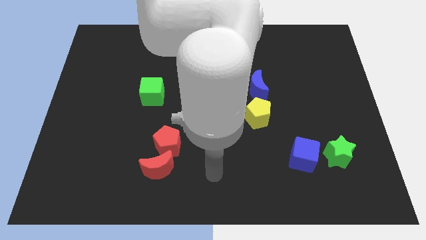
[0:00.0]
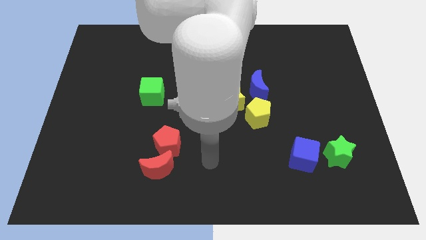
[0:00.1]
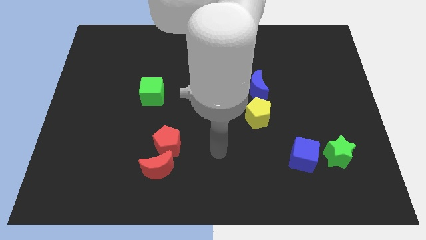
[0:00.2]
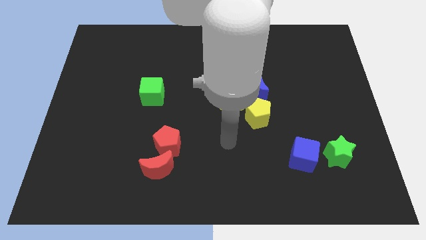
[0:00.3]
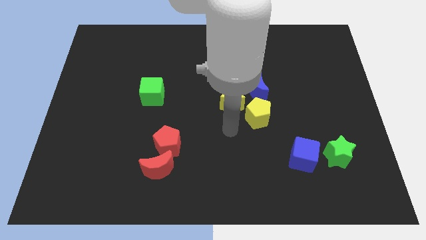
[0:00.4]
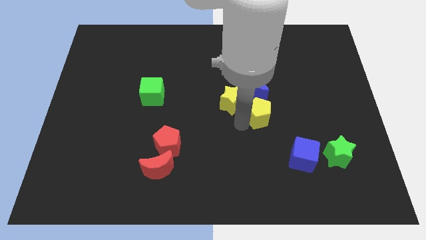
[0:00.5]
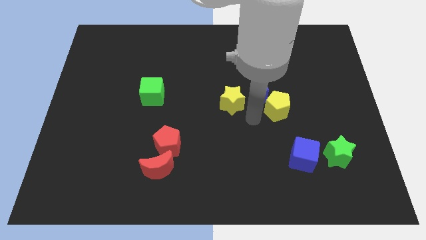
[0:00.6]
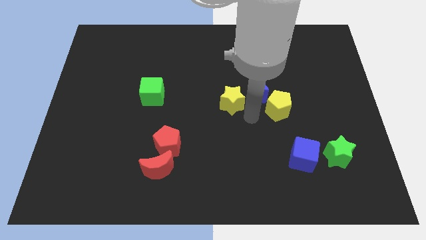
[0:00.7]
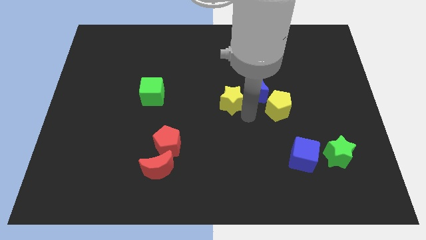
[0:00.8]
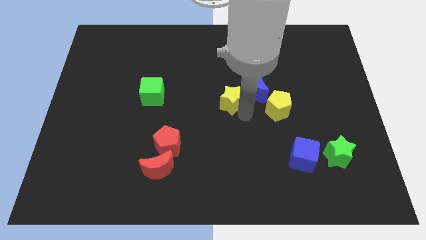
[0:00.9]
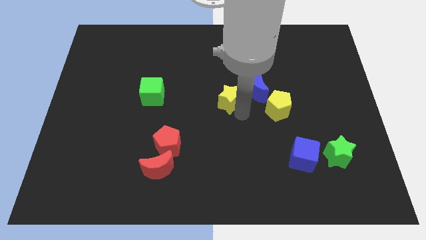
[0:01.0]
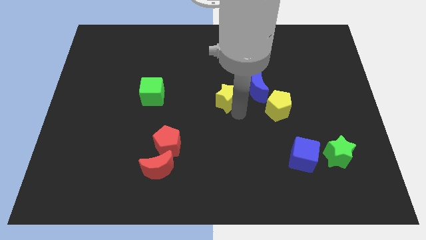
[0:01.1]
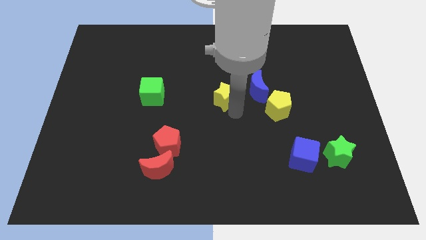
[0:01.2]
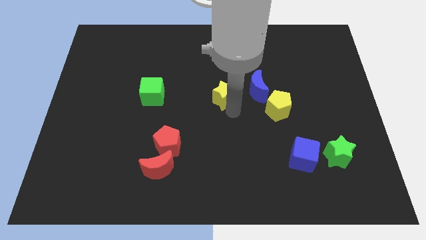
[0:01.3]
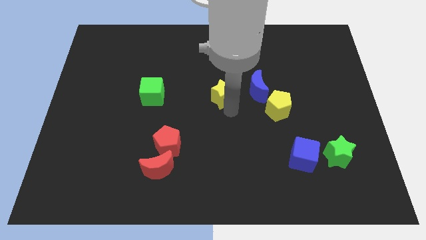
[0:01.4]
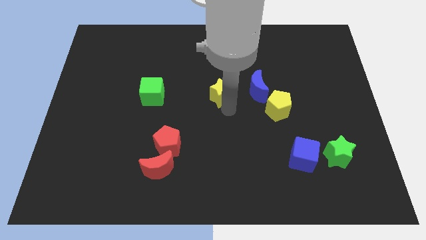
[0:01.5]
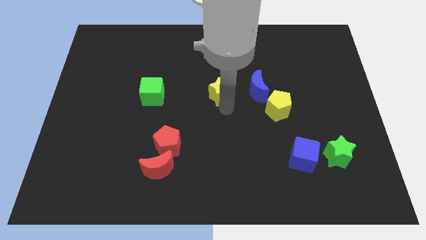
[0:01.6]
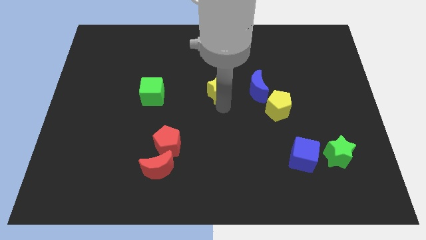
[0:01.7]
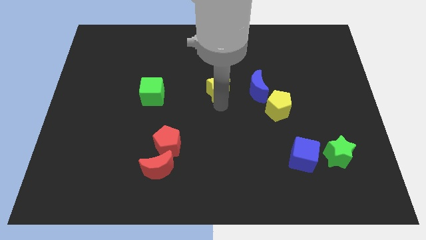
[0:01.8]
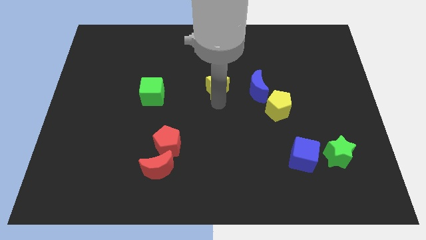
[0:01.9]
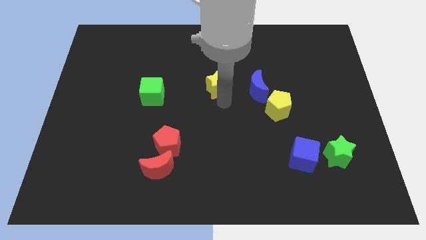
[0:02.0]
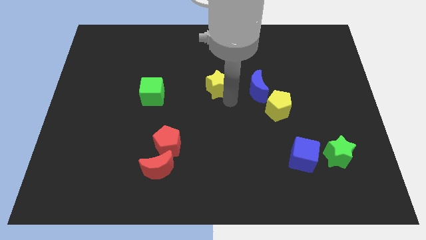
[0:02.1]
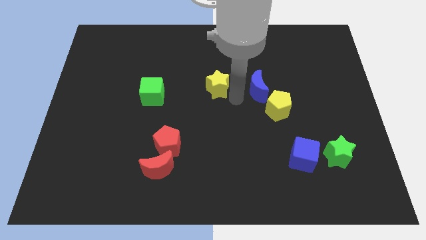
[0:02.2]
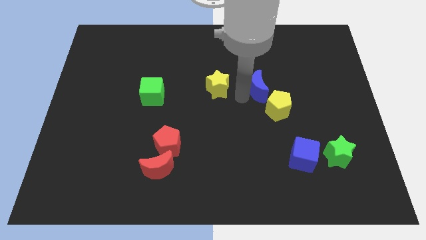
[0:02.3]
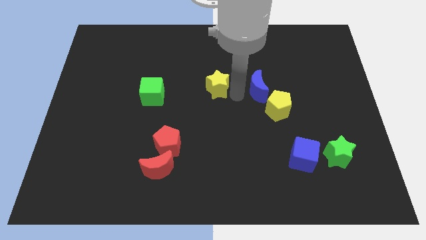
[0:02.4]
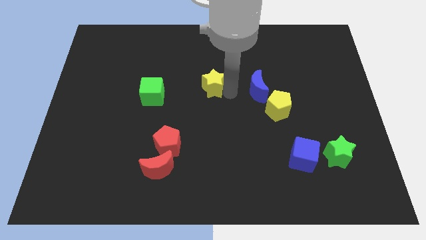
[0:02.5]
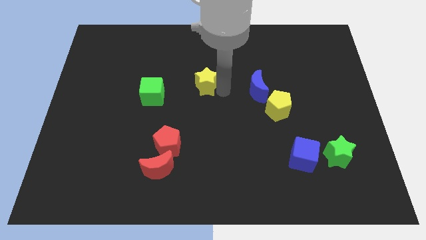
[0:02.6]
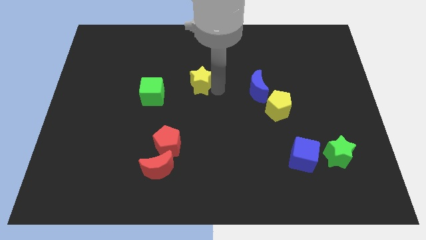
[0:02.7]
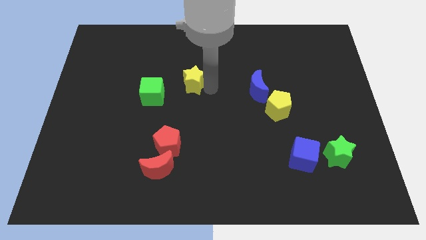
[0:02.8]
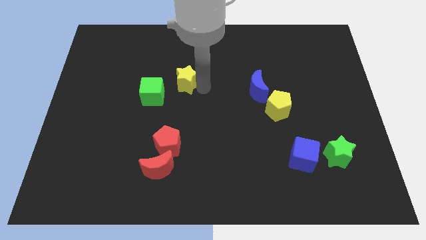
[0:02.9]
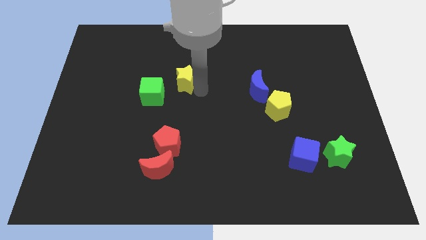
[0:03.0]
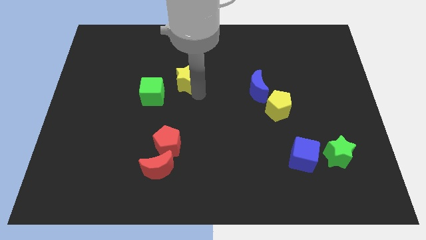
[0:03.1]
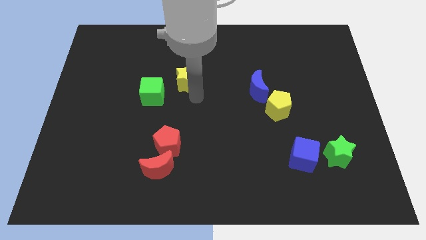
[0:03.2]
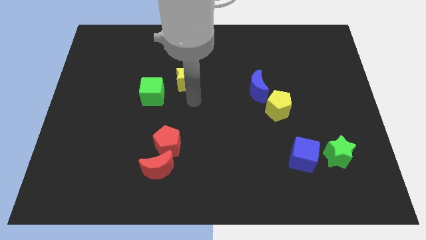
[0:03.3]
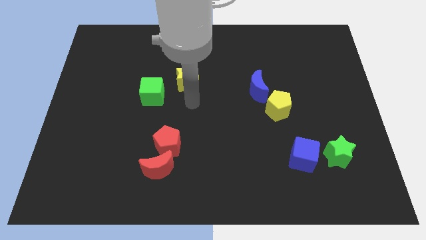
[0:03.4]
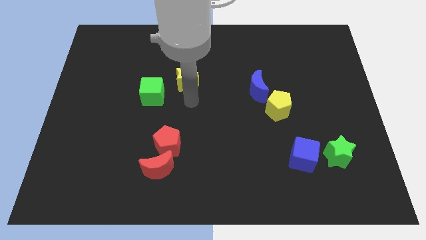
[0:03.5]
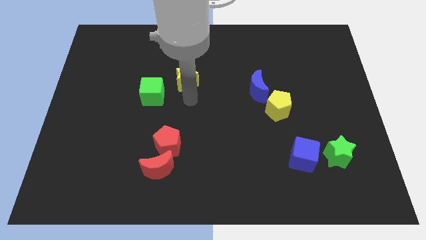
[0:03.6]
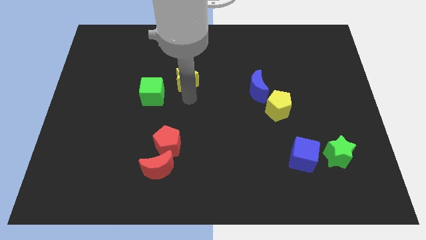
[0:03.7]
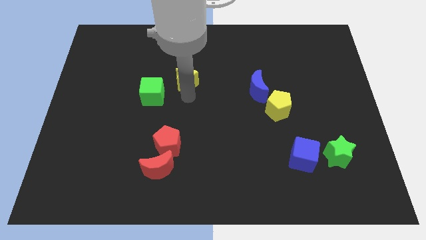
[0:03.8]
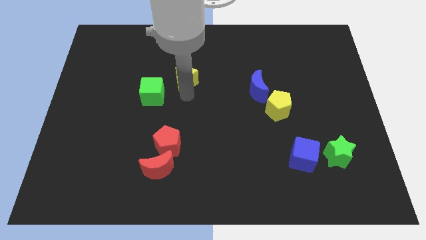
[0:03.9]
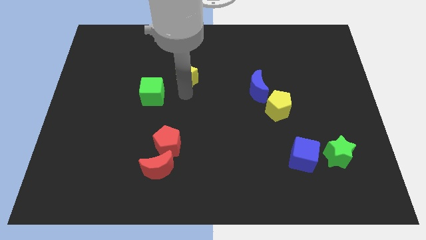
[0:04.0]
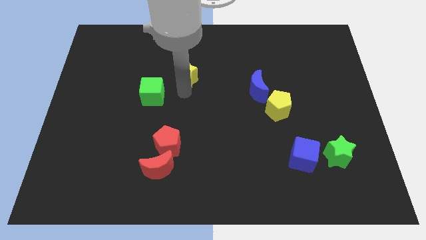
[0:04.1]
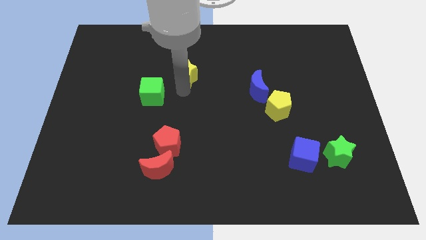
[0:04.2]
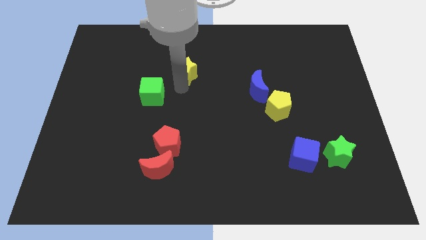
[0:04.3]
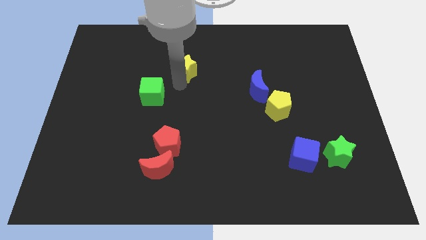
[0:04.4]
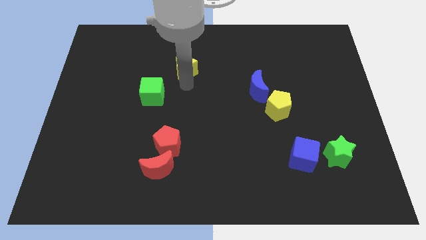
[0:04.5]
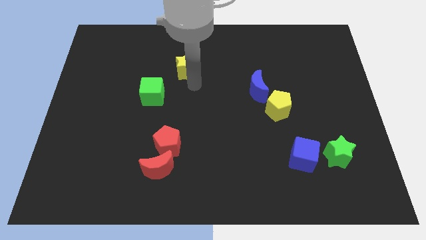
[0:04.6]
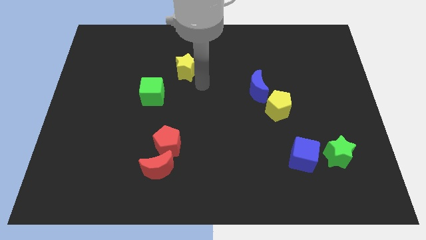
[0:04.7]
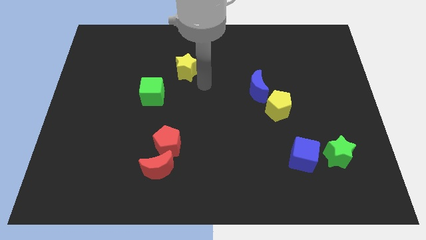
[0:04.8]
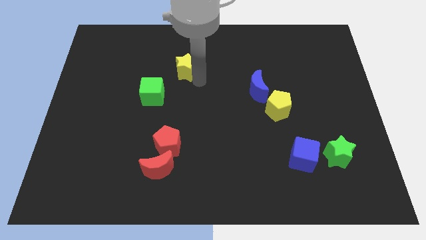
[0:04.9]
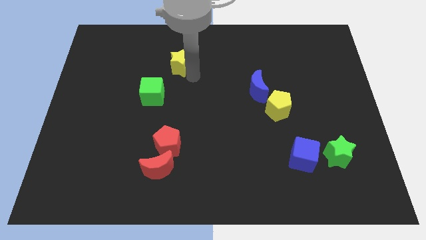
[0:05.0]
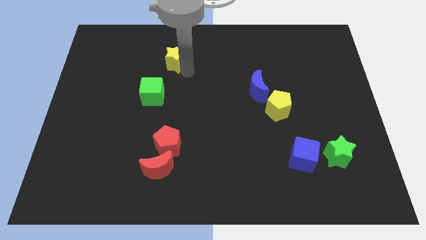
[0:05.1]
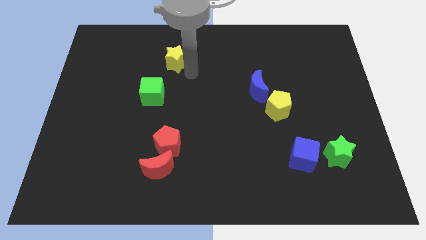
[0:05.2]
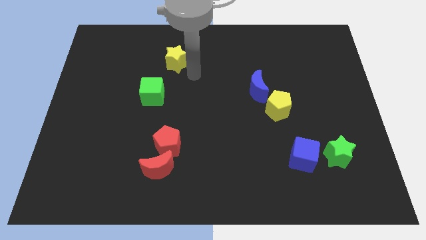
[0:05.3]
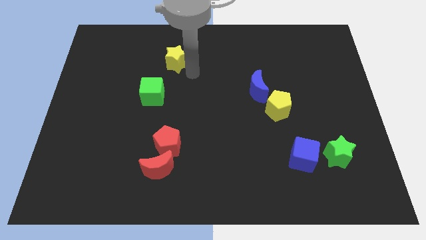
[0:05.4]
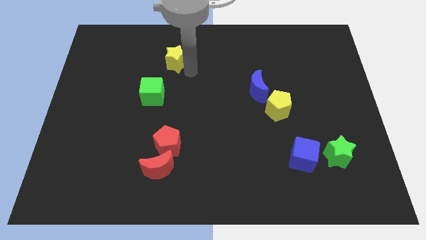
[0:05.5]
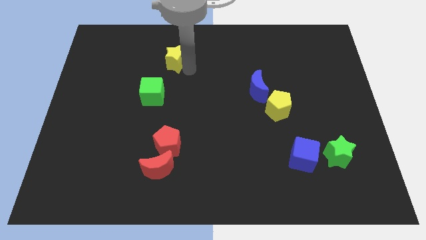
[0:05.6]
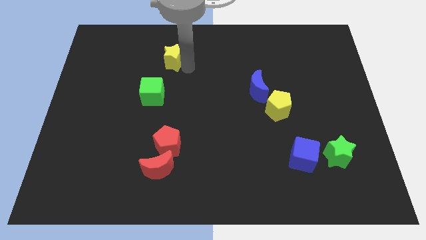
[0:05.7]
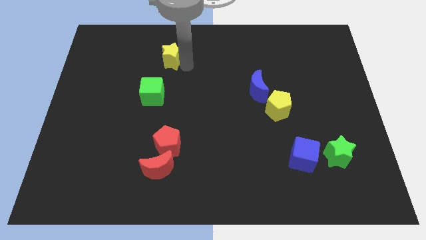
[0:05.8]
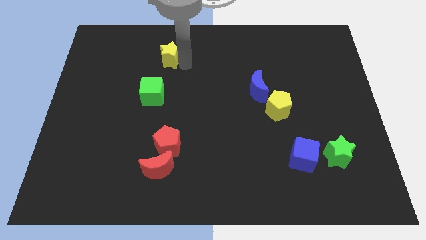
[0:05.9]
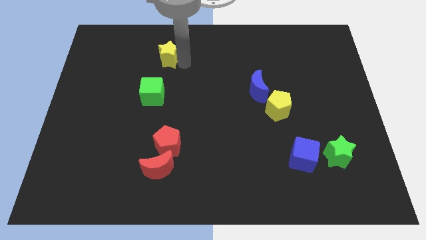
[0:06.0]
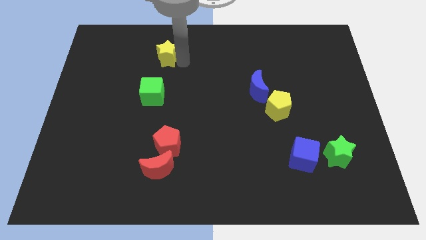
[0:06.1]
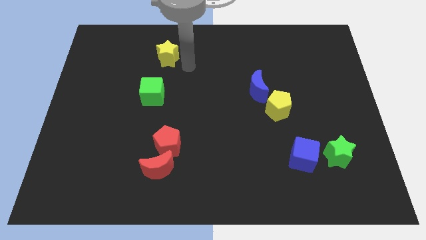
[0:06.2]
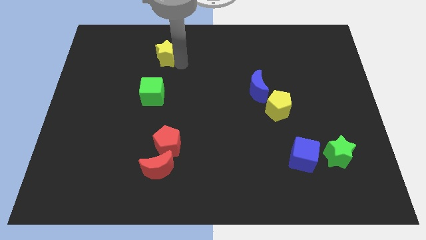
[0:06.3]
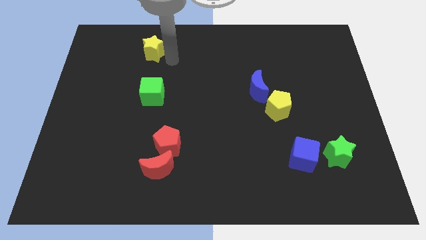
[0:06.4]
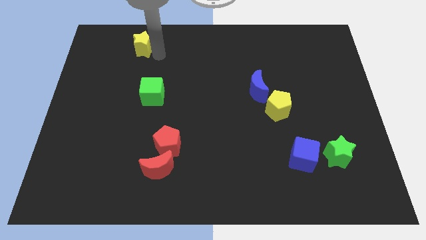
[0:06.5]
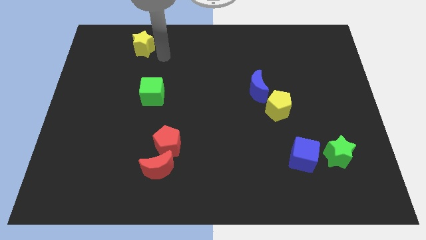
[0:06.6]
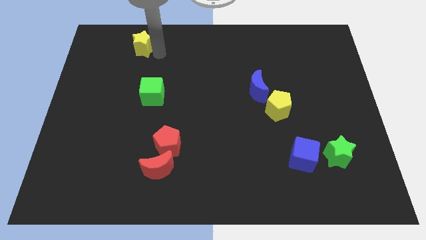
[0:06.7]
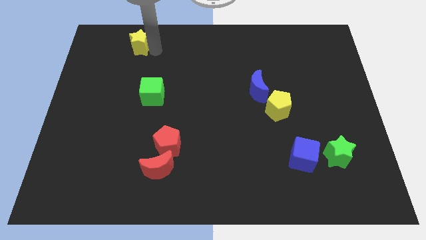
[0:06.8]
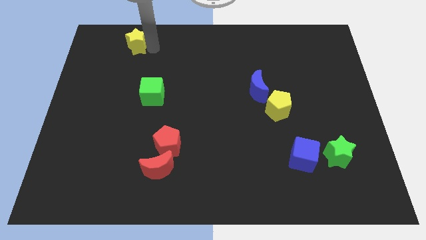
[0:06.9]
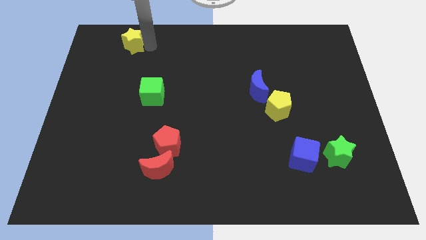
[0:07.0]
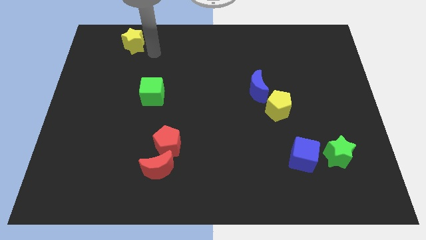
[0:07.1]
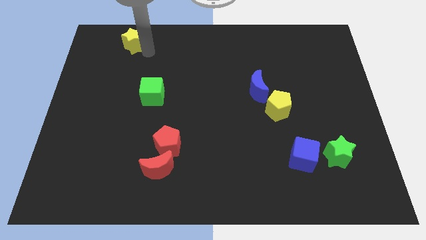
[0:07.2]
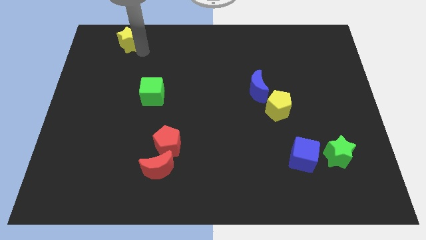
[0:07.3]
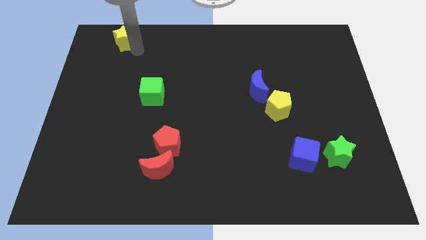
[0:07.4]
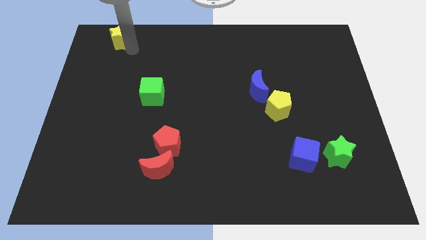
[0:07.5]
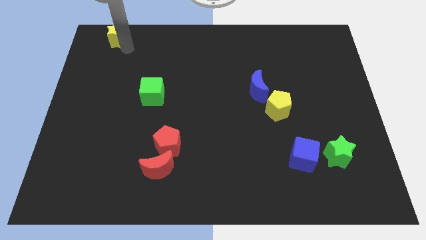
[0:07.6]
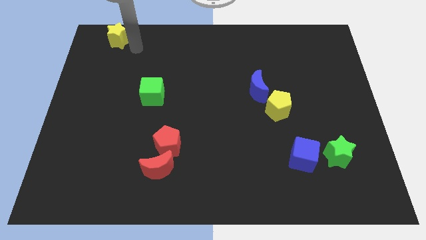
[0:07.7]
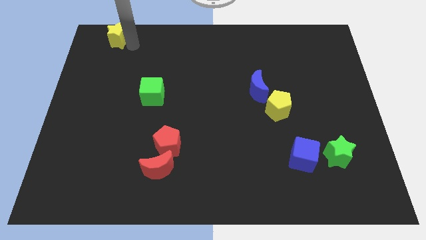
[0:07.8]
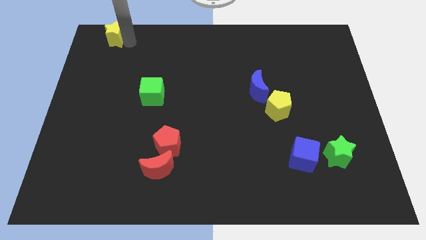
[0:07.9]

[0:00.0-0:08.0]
slide the yellow star to the top left of the board
